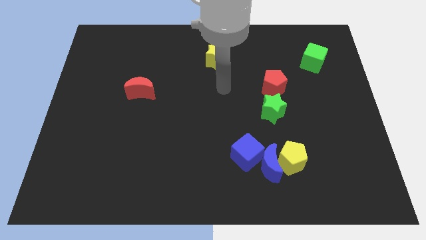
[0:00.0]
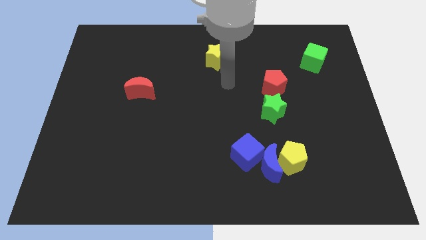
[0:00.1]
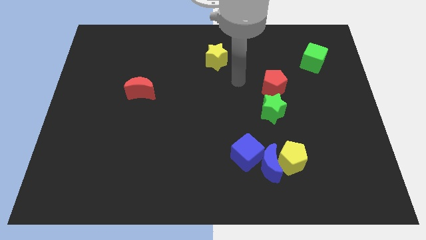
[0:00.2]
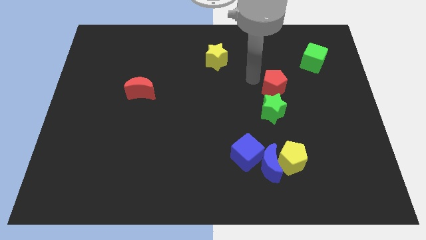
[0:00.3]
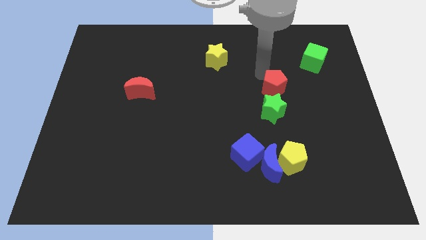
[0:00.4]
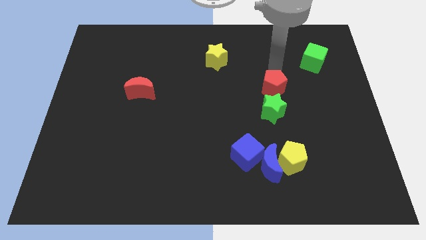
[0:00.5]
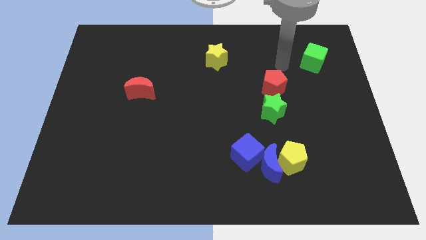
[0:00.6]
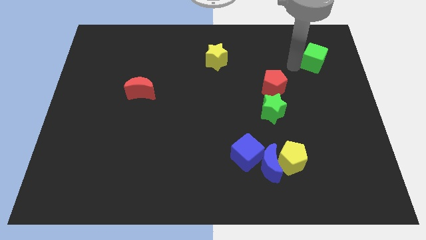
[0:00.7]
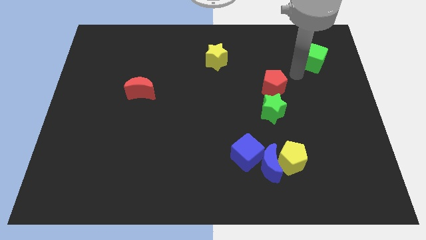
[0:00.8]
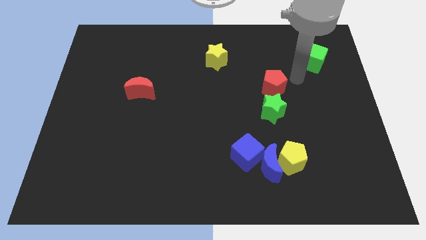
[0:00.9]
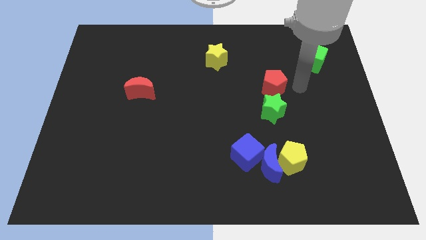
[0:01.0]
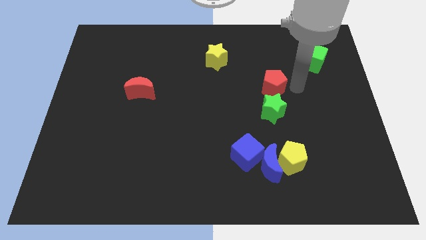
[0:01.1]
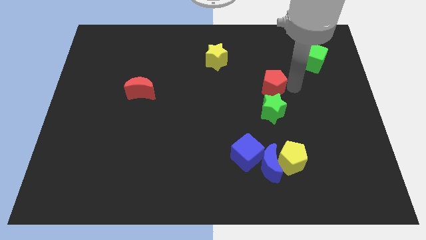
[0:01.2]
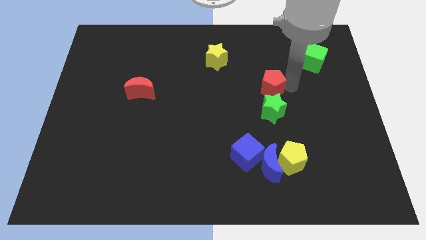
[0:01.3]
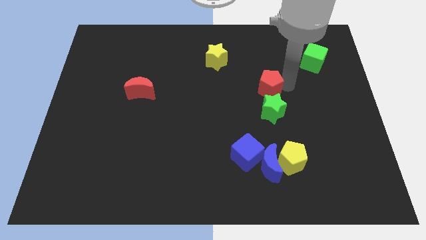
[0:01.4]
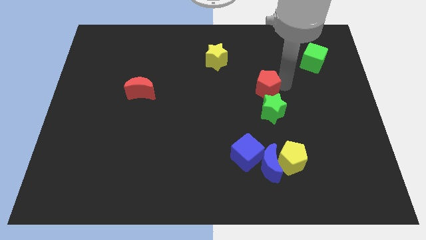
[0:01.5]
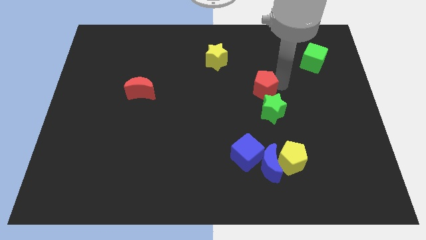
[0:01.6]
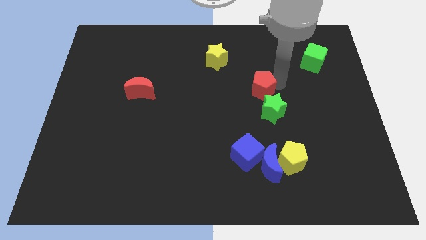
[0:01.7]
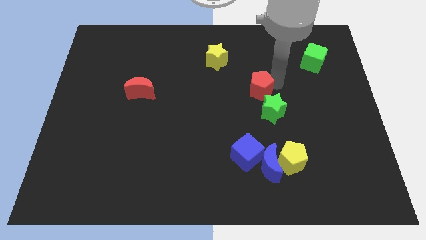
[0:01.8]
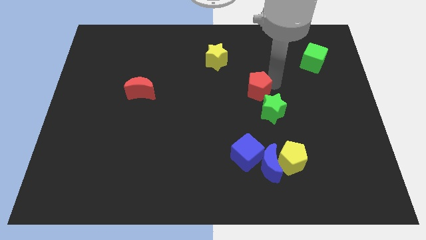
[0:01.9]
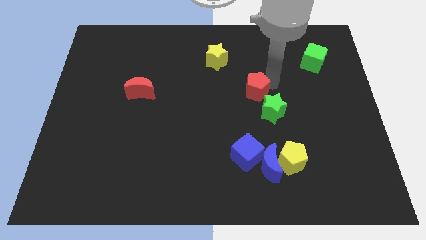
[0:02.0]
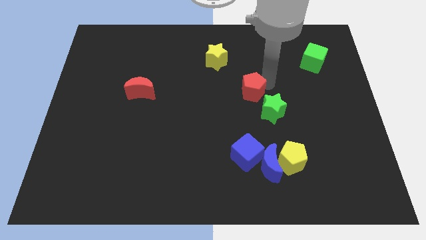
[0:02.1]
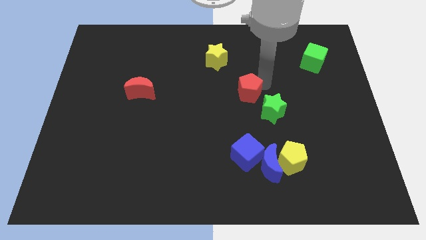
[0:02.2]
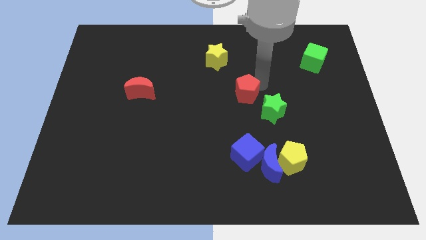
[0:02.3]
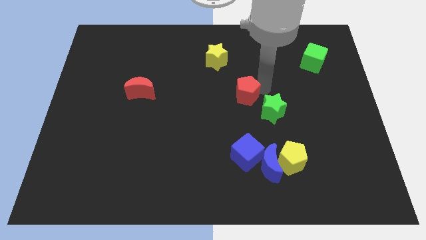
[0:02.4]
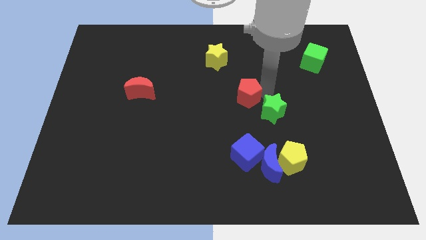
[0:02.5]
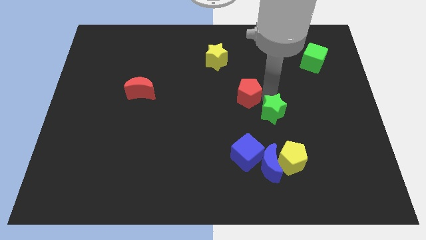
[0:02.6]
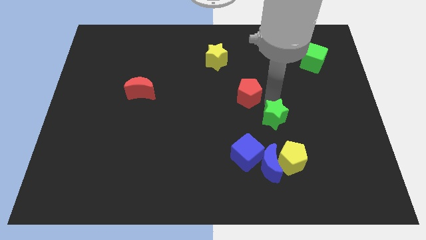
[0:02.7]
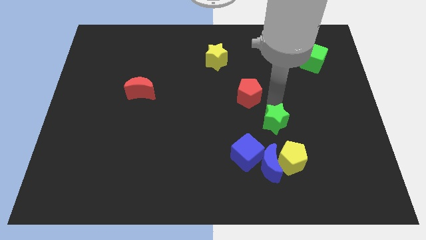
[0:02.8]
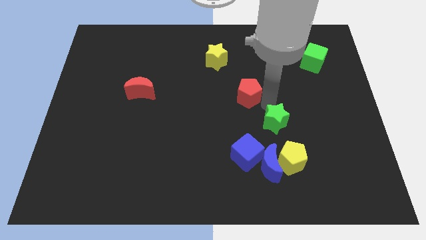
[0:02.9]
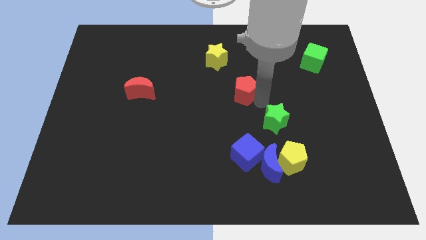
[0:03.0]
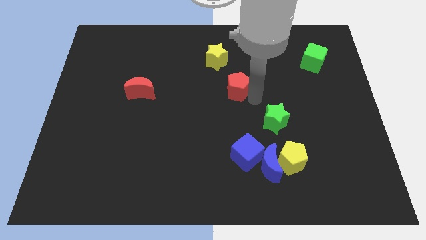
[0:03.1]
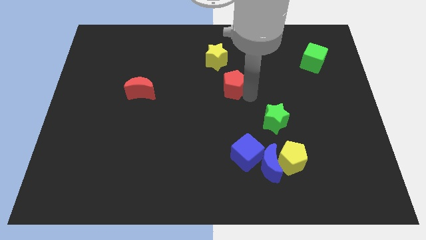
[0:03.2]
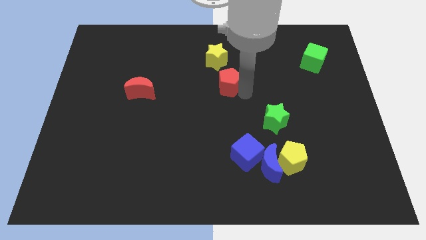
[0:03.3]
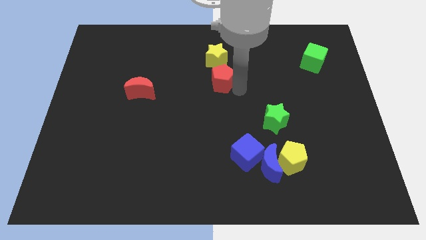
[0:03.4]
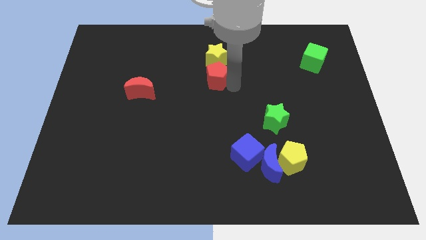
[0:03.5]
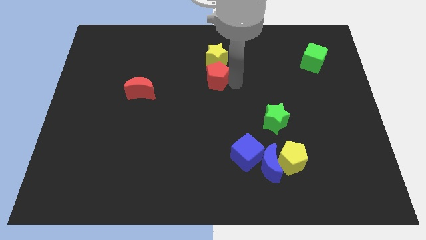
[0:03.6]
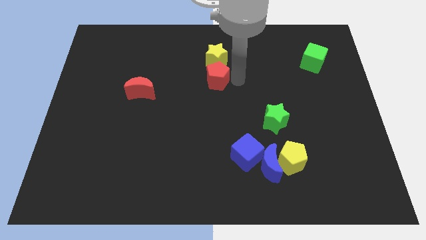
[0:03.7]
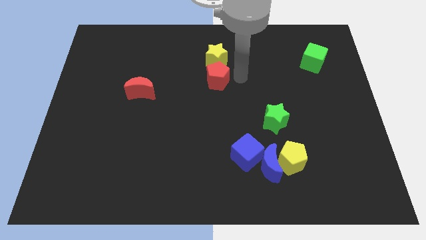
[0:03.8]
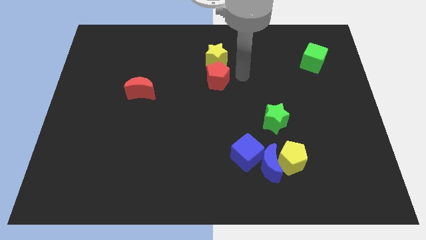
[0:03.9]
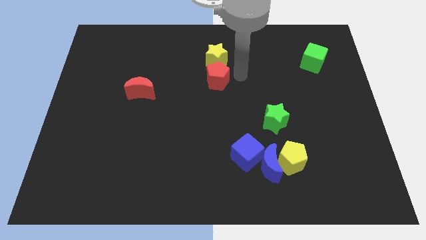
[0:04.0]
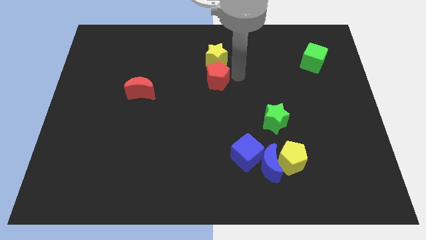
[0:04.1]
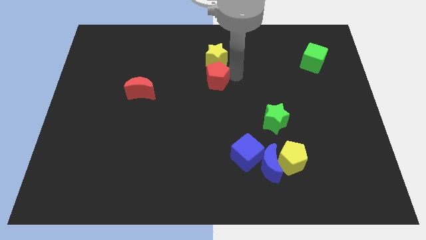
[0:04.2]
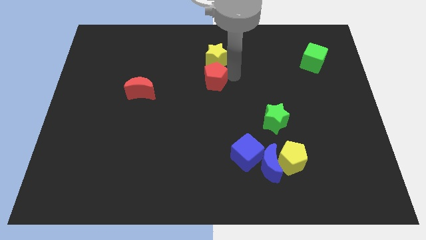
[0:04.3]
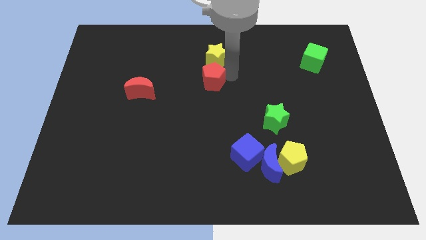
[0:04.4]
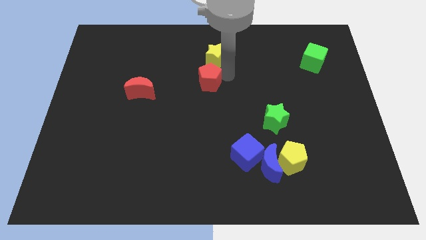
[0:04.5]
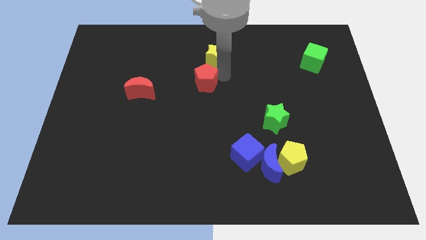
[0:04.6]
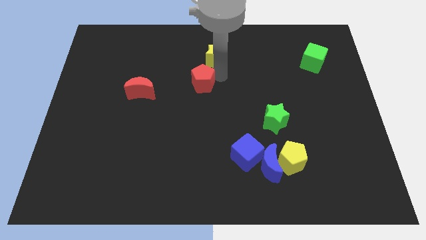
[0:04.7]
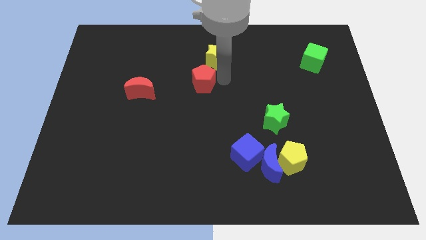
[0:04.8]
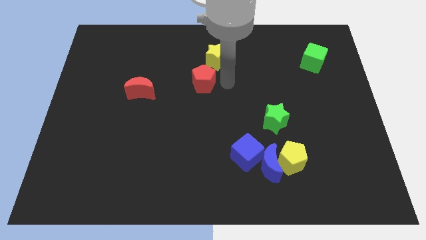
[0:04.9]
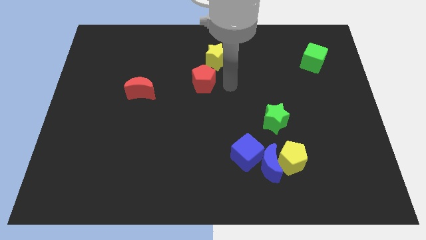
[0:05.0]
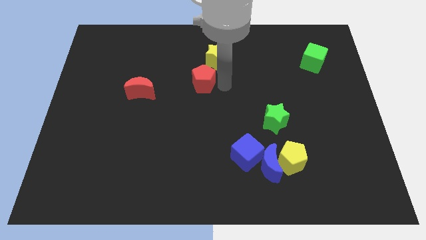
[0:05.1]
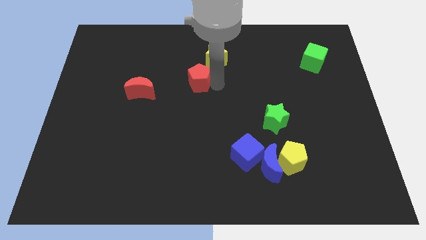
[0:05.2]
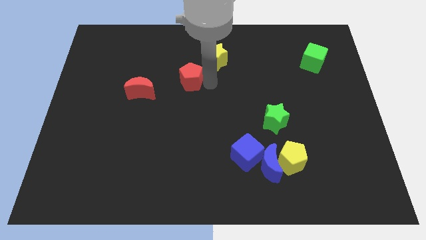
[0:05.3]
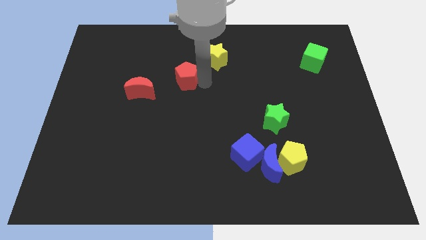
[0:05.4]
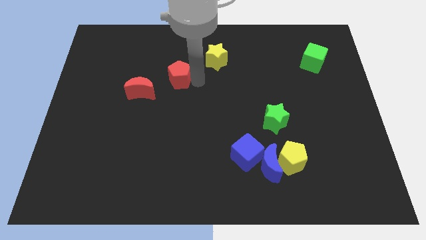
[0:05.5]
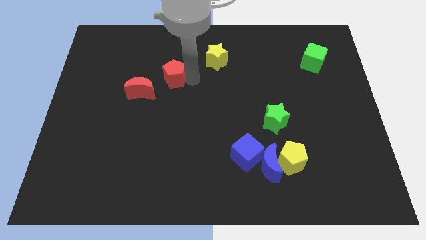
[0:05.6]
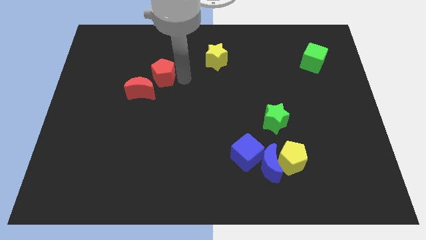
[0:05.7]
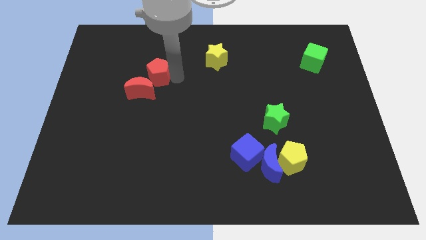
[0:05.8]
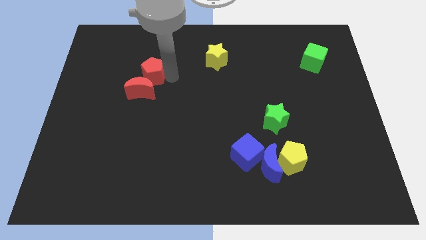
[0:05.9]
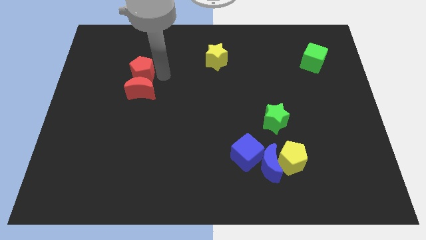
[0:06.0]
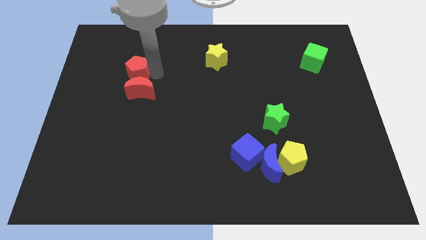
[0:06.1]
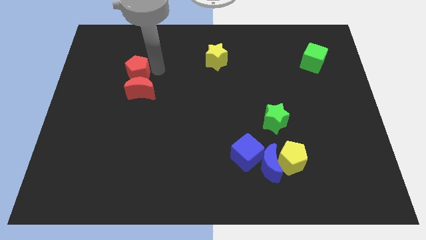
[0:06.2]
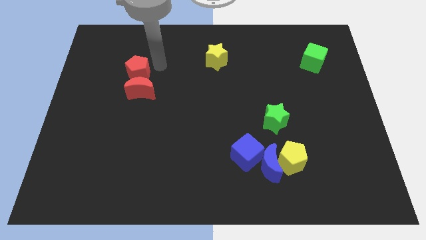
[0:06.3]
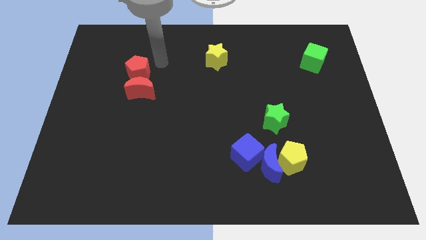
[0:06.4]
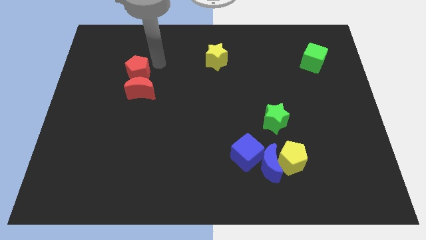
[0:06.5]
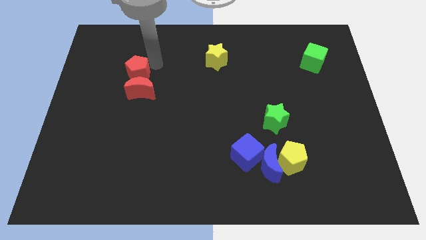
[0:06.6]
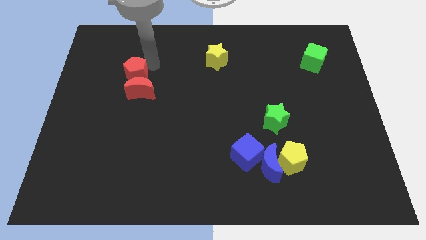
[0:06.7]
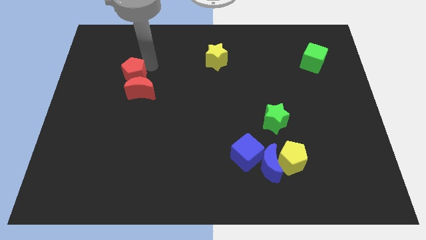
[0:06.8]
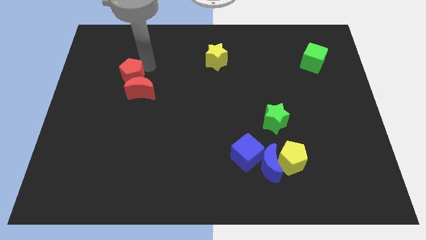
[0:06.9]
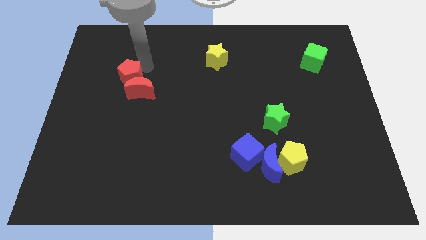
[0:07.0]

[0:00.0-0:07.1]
slide the red pentagon to the left side of the red moon

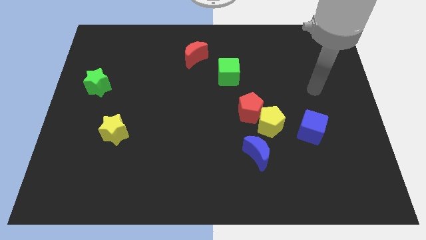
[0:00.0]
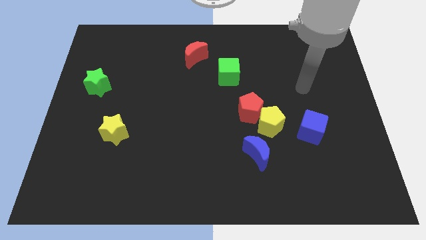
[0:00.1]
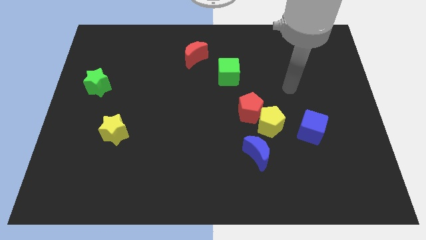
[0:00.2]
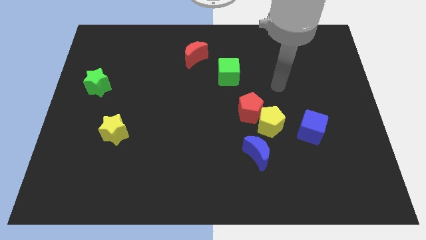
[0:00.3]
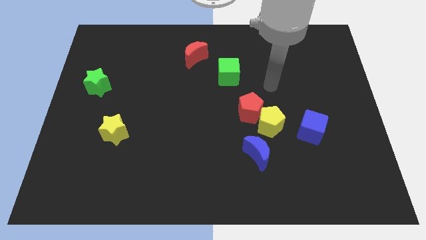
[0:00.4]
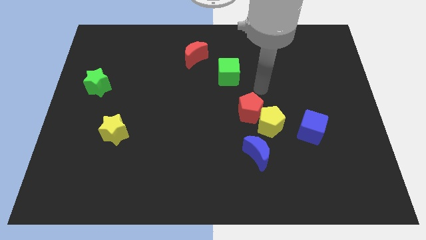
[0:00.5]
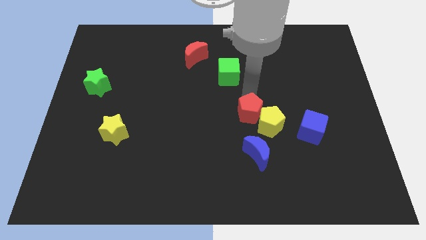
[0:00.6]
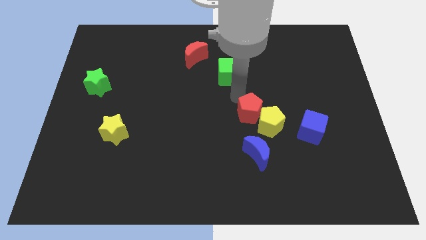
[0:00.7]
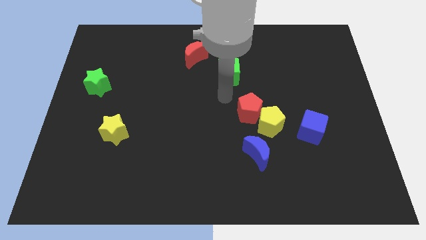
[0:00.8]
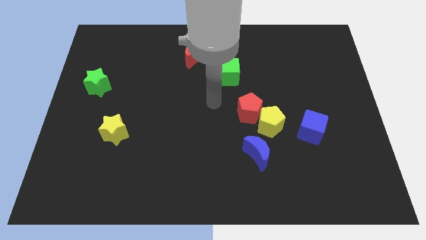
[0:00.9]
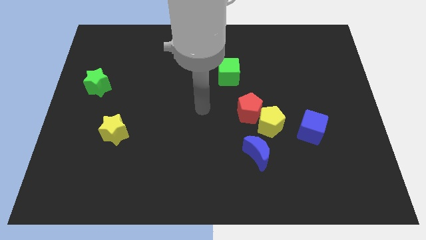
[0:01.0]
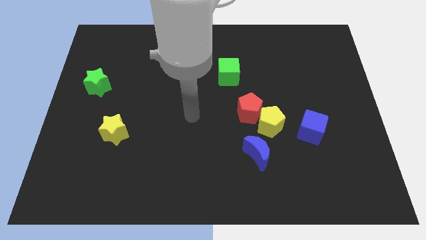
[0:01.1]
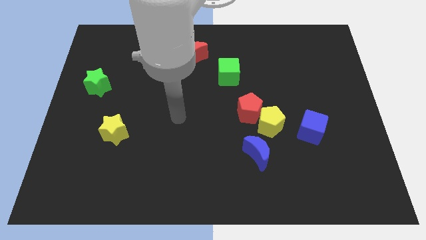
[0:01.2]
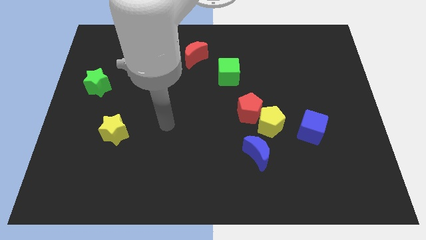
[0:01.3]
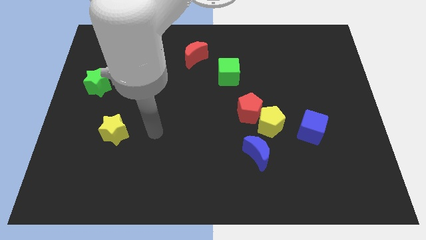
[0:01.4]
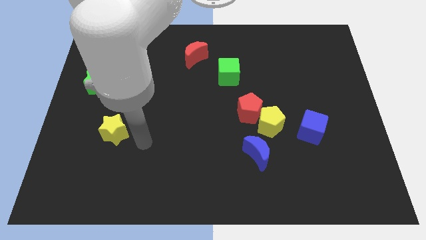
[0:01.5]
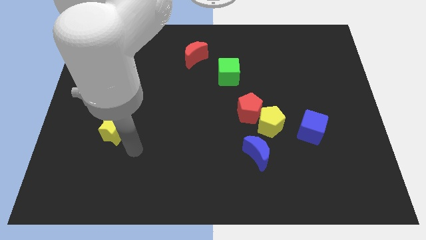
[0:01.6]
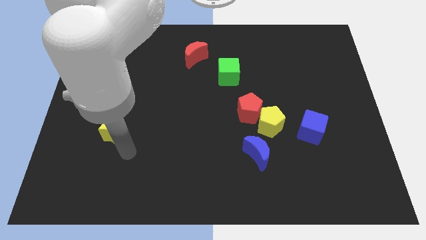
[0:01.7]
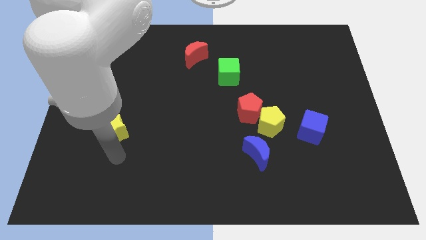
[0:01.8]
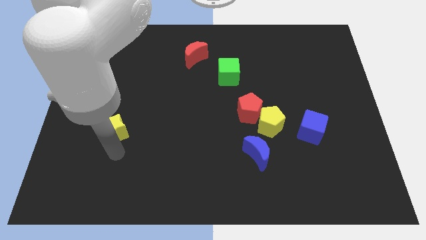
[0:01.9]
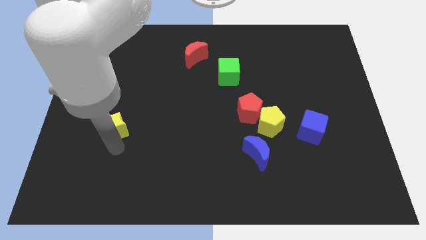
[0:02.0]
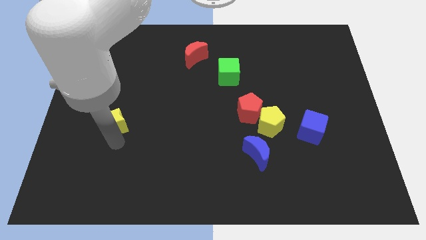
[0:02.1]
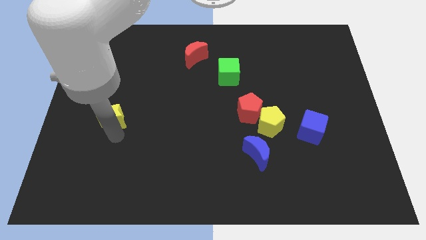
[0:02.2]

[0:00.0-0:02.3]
push the yellow star diagonally down and to the right of the green star
